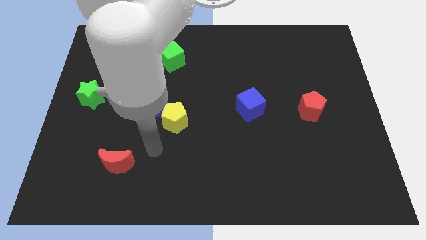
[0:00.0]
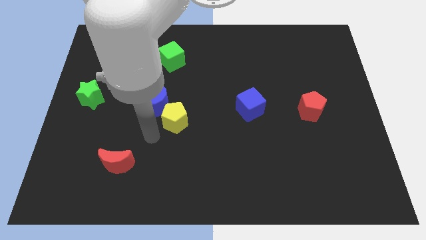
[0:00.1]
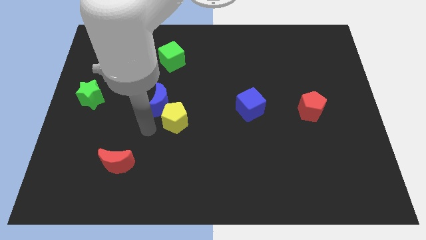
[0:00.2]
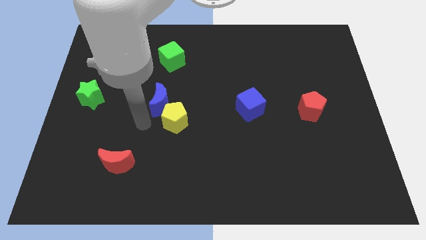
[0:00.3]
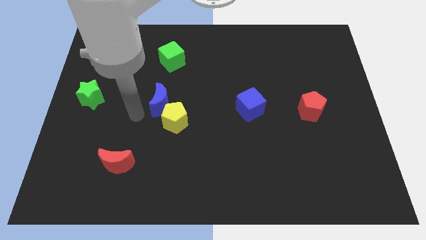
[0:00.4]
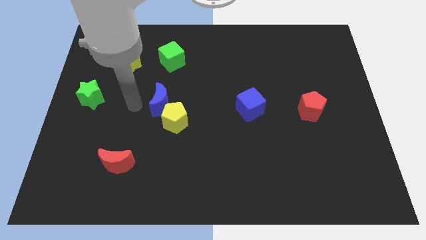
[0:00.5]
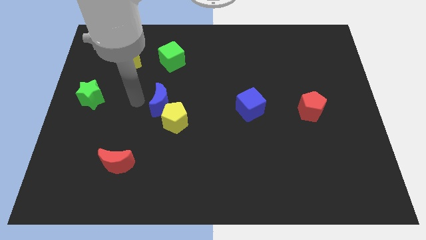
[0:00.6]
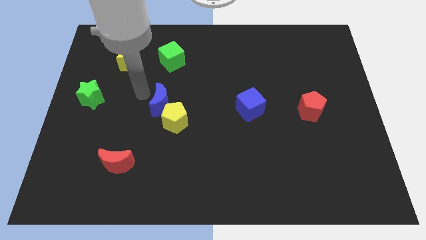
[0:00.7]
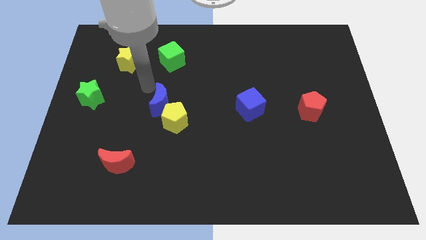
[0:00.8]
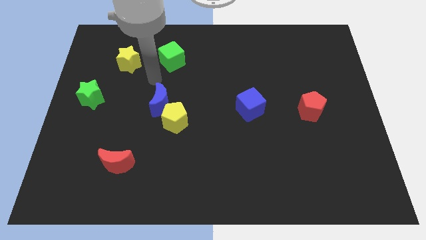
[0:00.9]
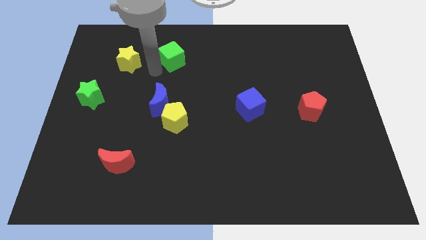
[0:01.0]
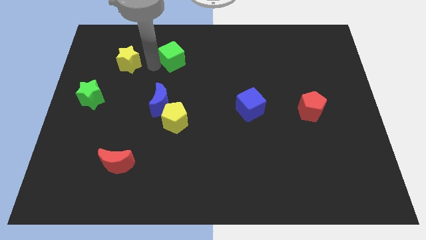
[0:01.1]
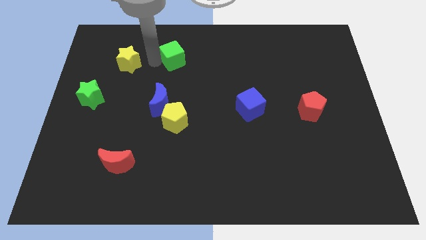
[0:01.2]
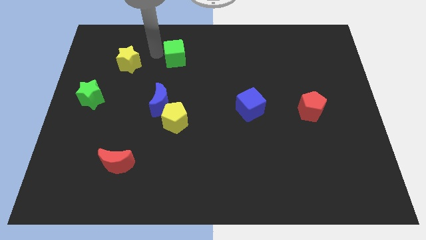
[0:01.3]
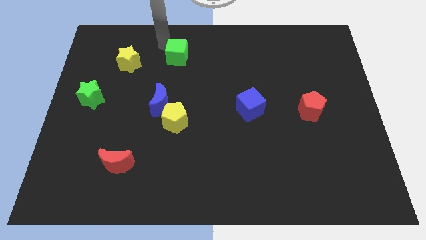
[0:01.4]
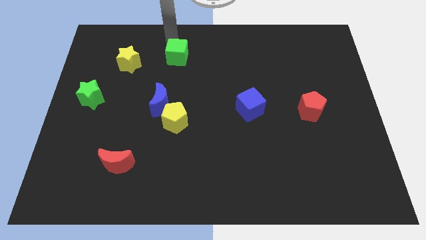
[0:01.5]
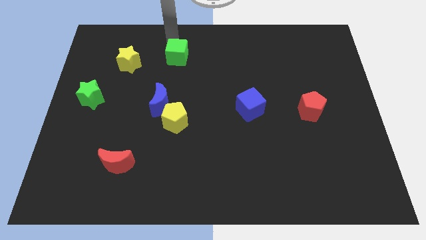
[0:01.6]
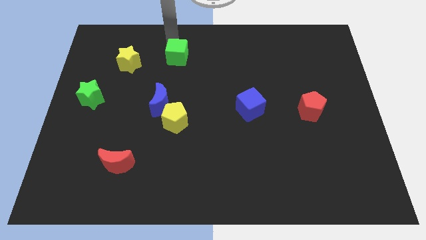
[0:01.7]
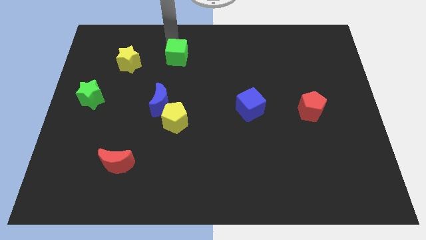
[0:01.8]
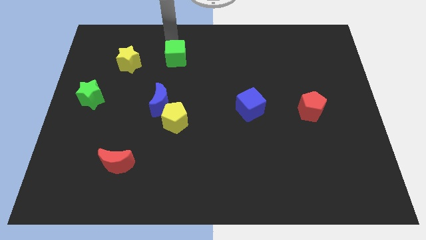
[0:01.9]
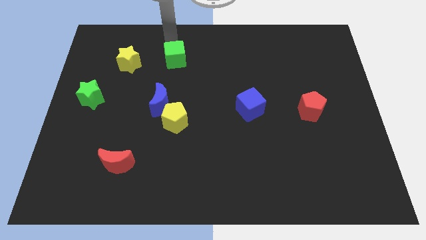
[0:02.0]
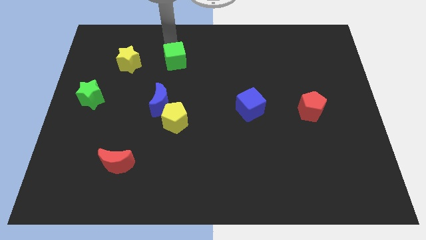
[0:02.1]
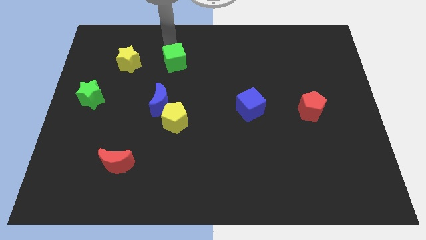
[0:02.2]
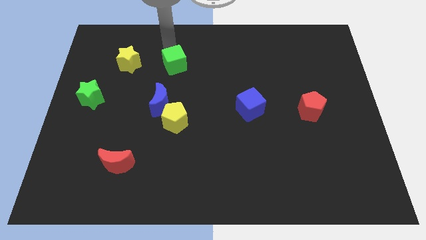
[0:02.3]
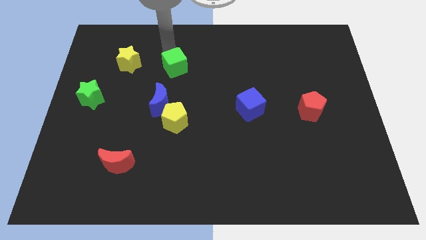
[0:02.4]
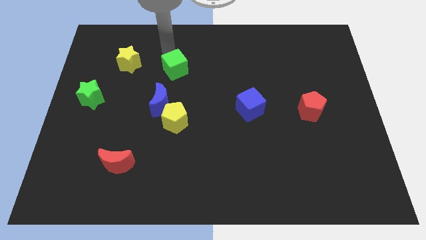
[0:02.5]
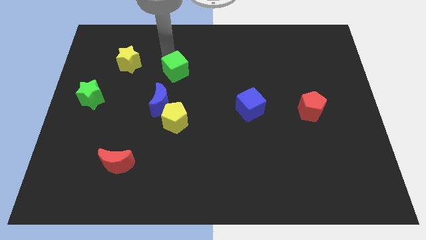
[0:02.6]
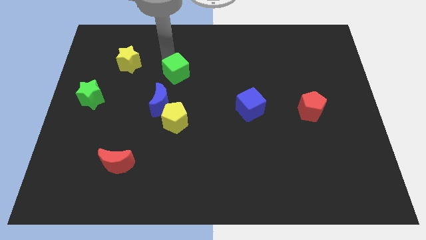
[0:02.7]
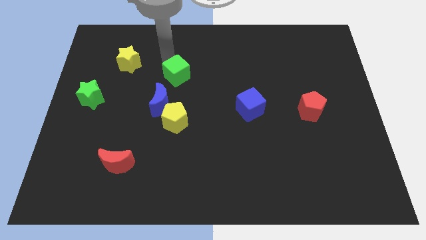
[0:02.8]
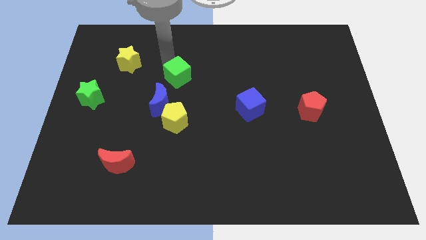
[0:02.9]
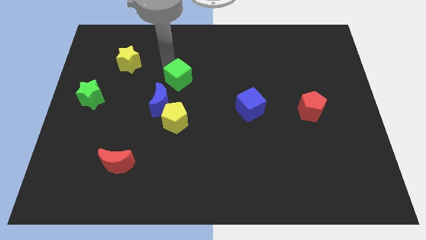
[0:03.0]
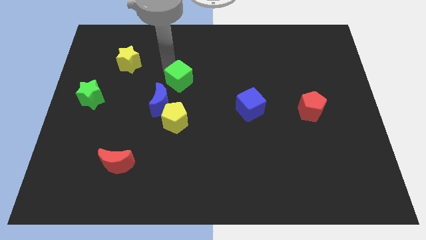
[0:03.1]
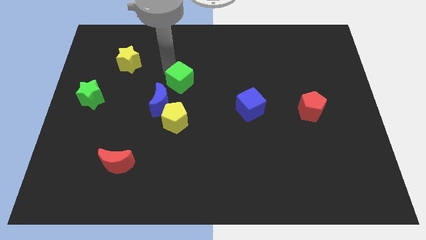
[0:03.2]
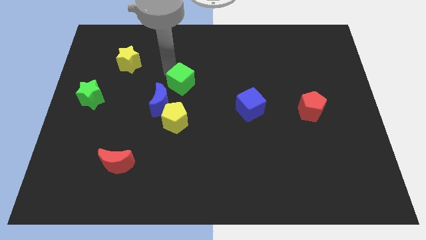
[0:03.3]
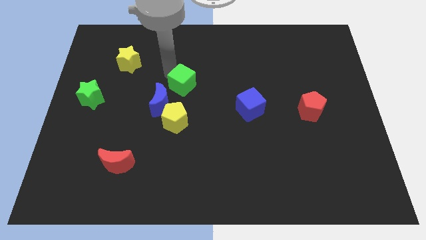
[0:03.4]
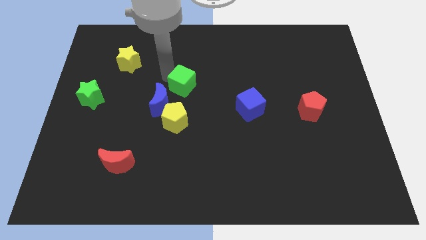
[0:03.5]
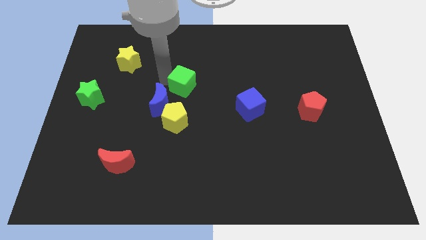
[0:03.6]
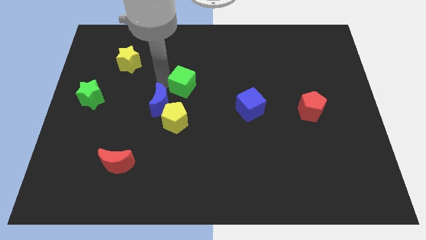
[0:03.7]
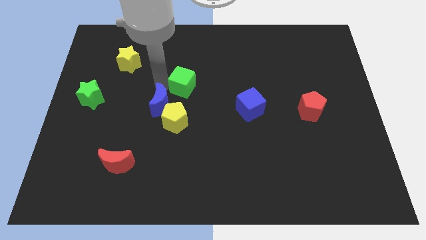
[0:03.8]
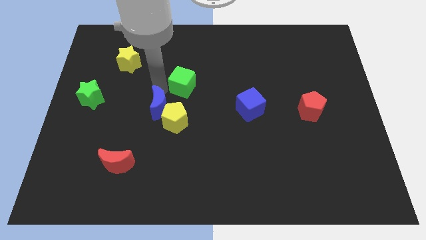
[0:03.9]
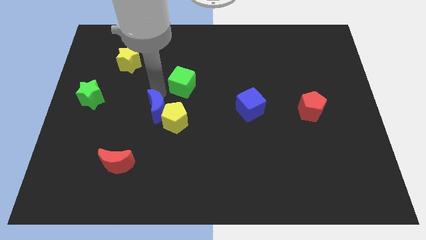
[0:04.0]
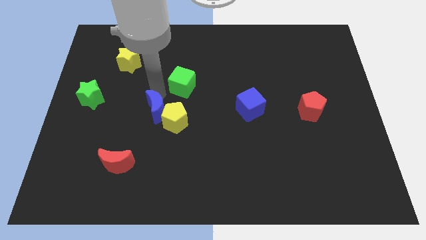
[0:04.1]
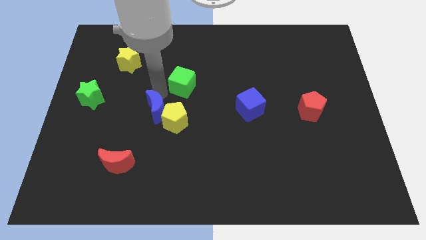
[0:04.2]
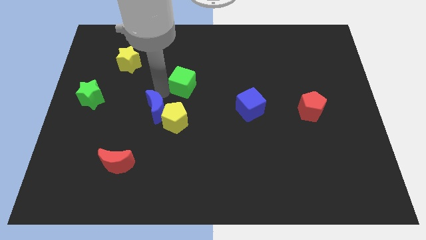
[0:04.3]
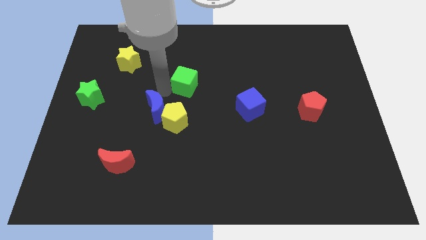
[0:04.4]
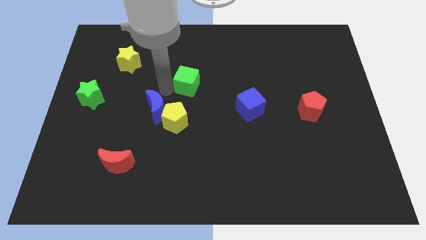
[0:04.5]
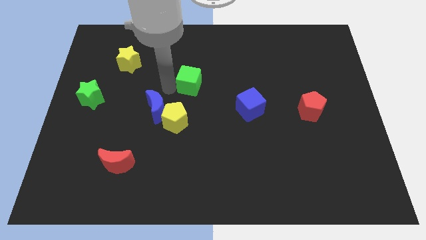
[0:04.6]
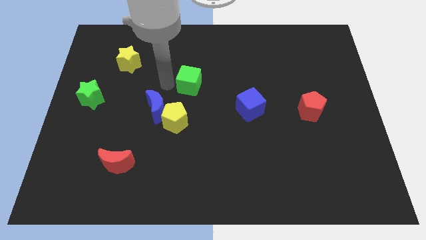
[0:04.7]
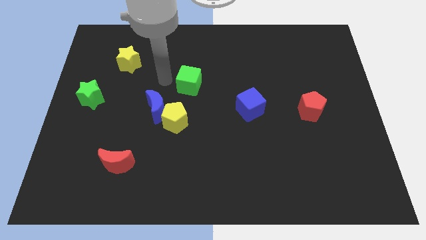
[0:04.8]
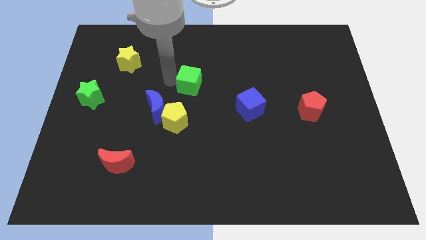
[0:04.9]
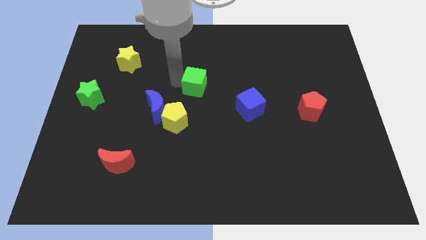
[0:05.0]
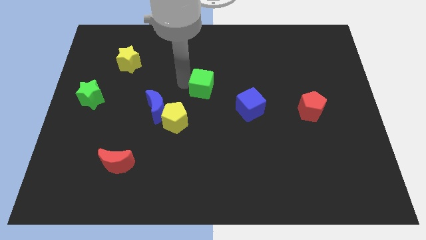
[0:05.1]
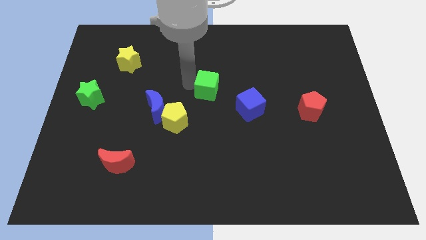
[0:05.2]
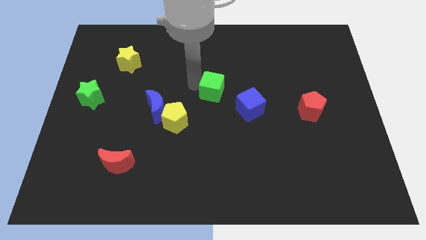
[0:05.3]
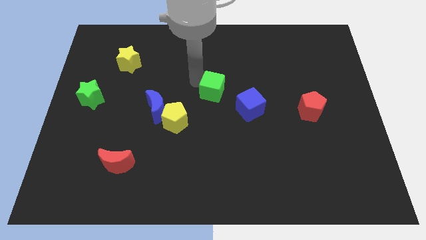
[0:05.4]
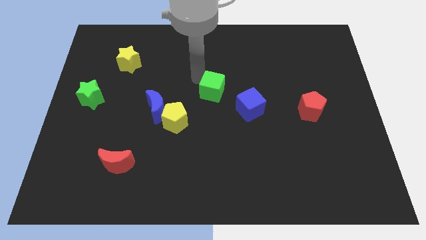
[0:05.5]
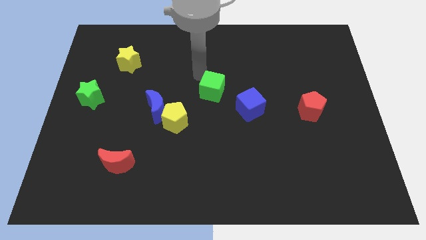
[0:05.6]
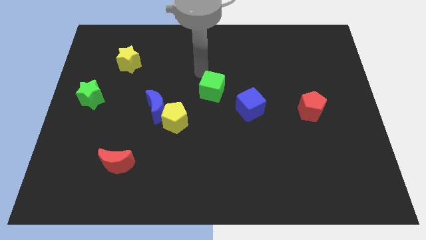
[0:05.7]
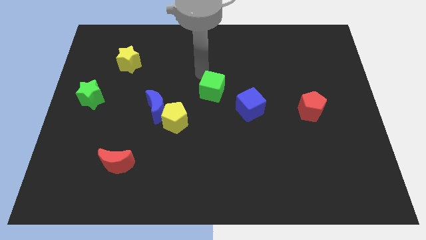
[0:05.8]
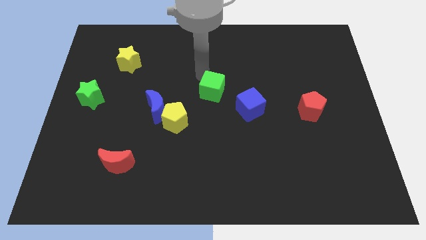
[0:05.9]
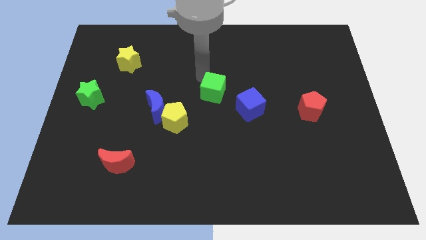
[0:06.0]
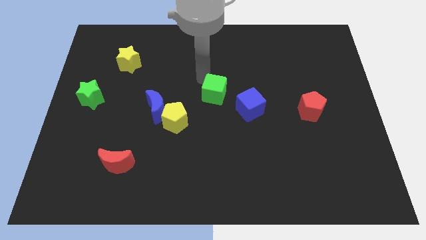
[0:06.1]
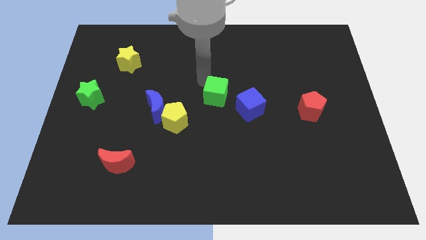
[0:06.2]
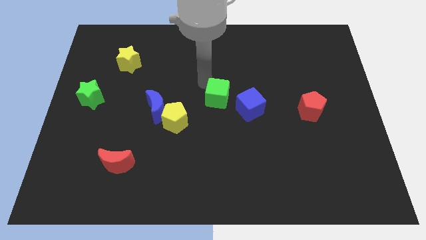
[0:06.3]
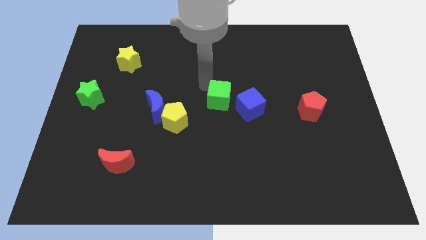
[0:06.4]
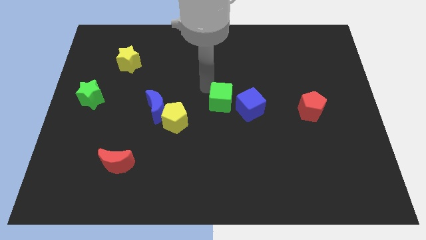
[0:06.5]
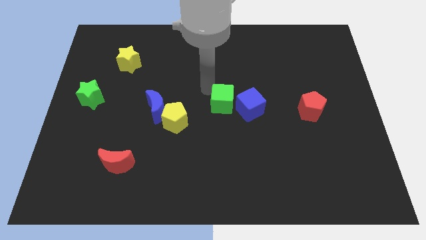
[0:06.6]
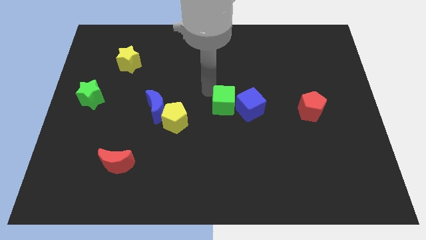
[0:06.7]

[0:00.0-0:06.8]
move the green cube down and right diagonally

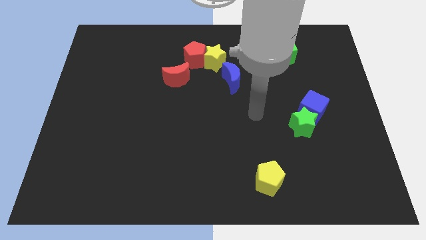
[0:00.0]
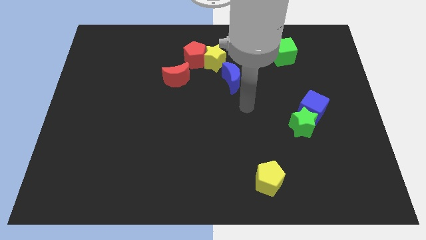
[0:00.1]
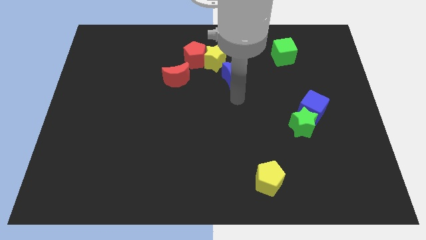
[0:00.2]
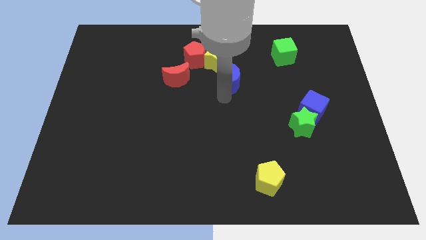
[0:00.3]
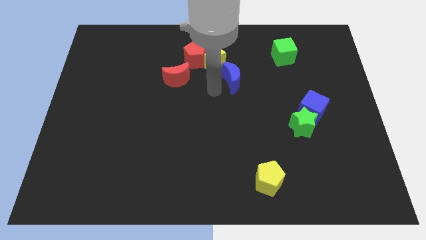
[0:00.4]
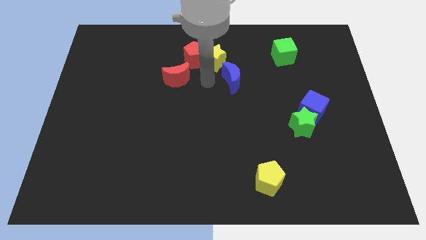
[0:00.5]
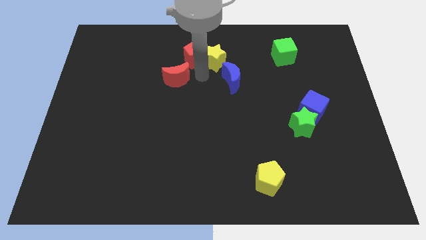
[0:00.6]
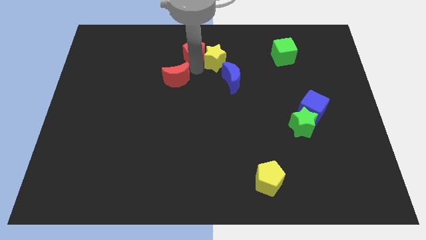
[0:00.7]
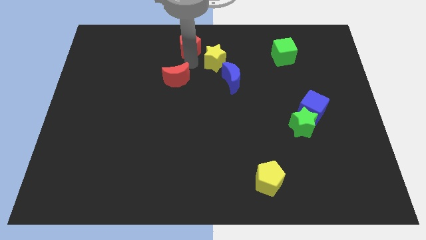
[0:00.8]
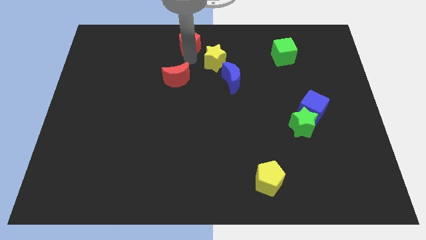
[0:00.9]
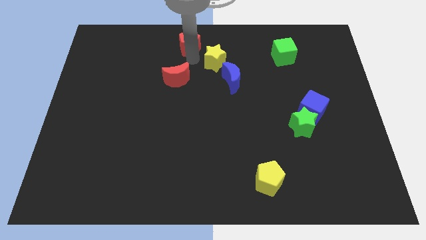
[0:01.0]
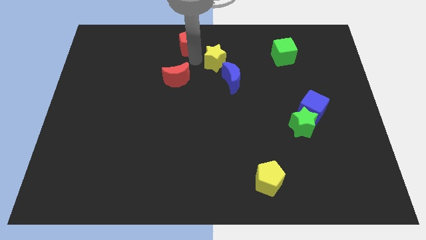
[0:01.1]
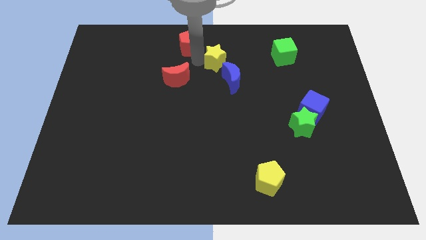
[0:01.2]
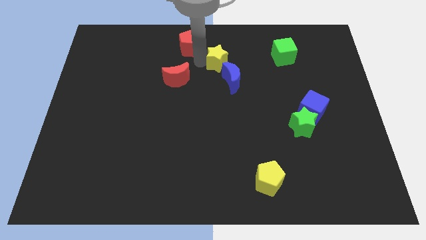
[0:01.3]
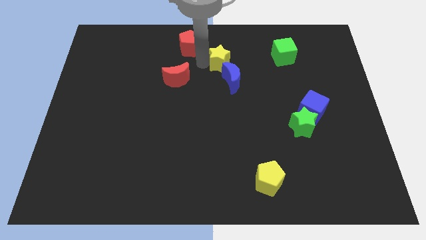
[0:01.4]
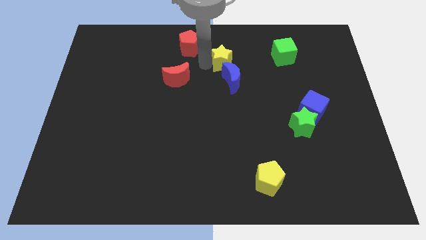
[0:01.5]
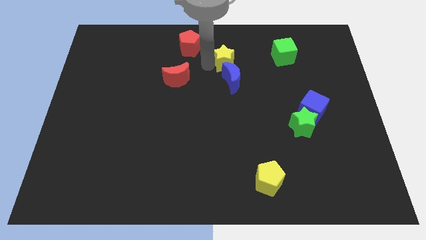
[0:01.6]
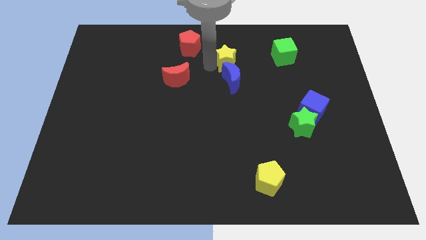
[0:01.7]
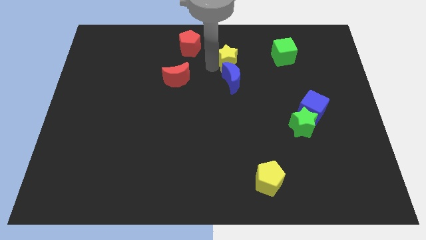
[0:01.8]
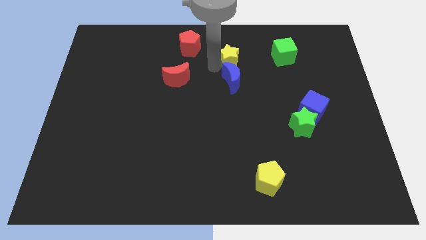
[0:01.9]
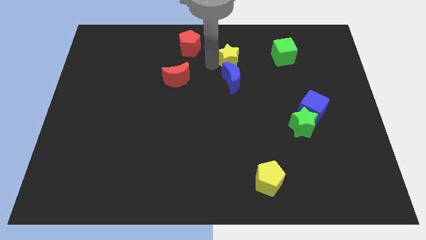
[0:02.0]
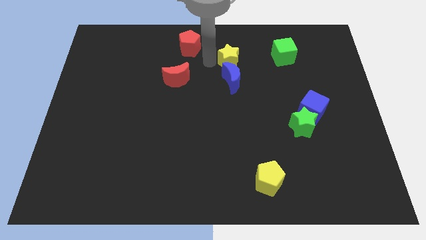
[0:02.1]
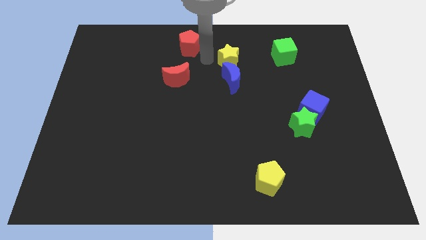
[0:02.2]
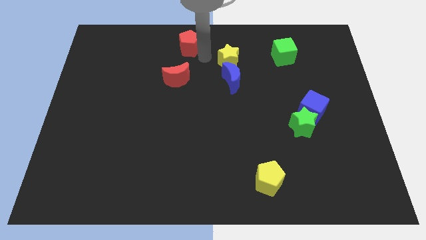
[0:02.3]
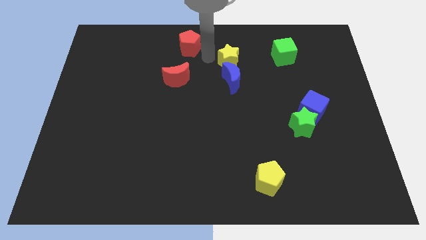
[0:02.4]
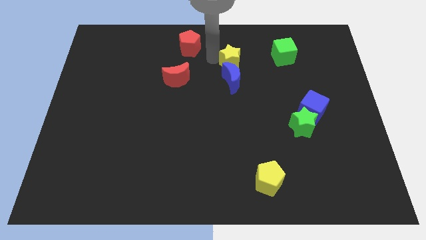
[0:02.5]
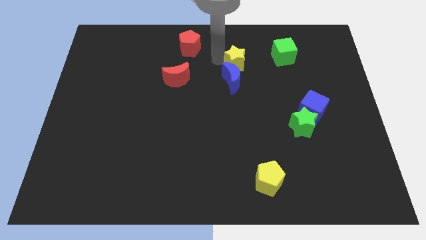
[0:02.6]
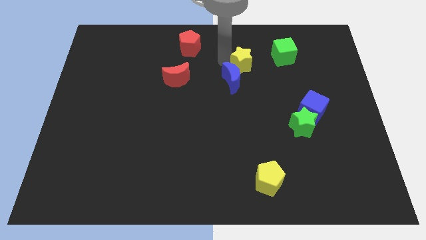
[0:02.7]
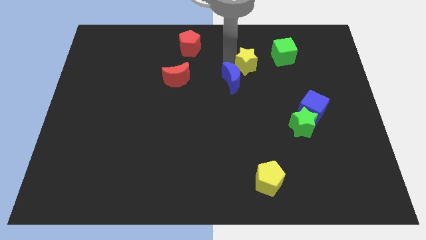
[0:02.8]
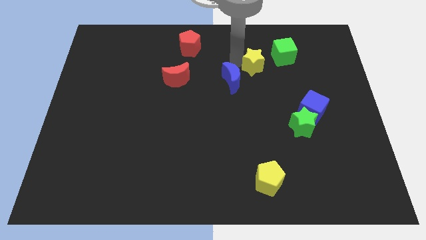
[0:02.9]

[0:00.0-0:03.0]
slide the yellow star diagonally downwards and to the right a little bit
